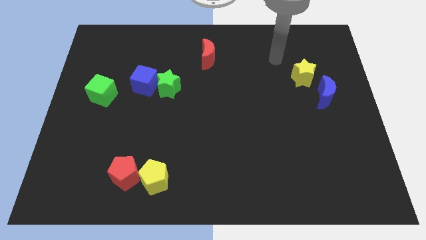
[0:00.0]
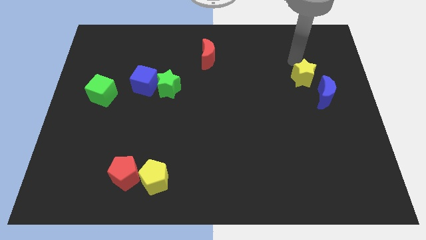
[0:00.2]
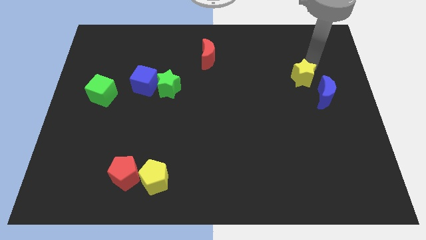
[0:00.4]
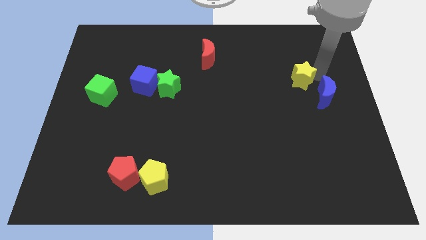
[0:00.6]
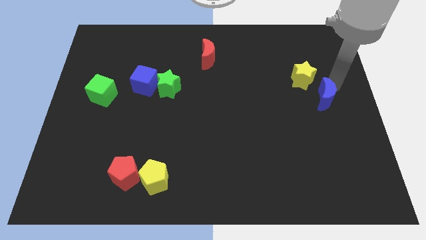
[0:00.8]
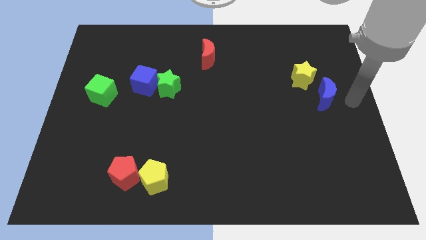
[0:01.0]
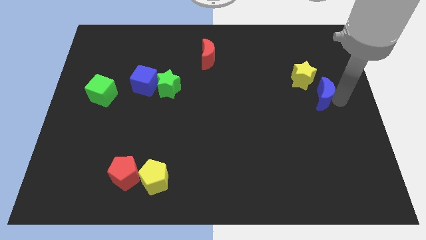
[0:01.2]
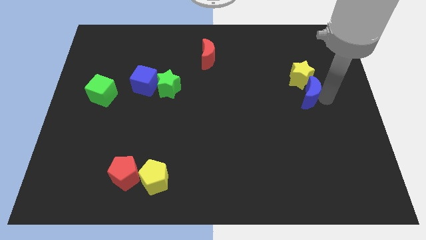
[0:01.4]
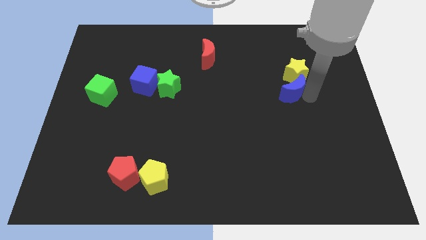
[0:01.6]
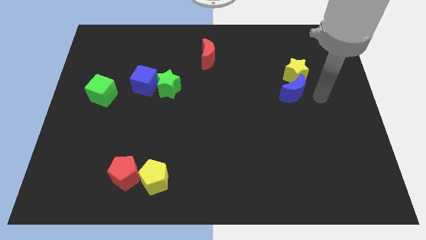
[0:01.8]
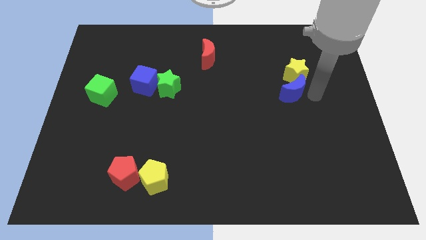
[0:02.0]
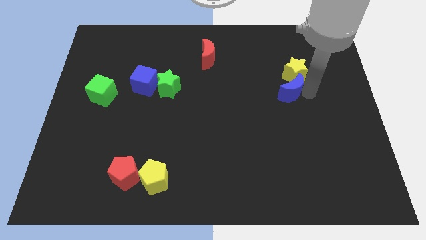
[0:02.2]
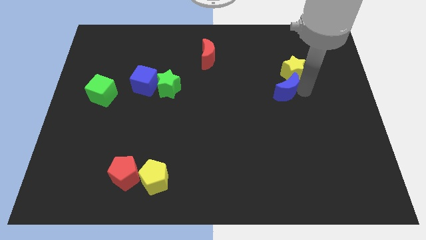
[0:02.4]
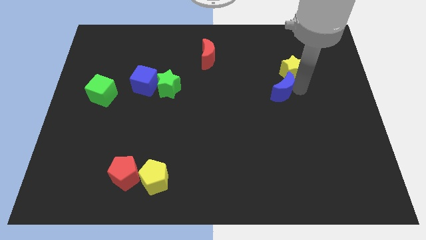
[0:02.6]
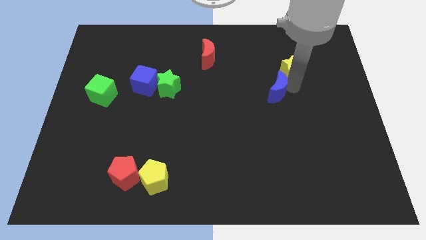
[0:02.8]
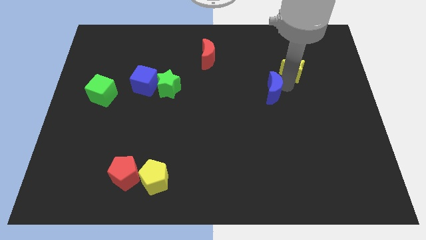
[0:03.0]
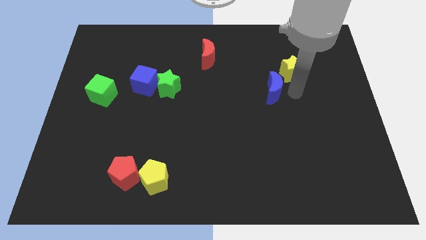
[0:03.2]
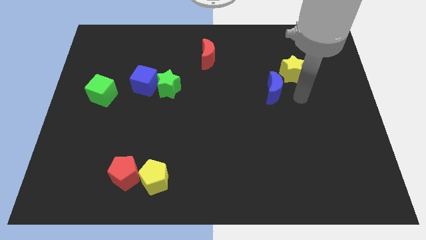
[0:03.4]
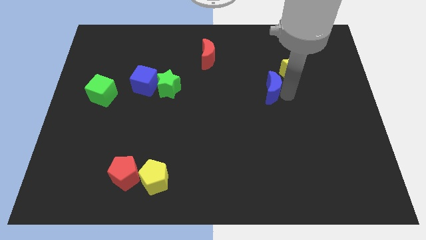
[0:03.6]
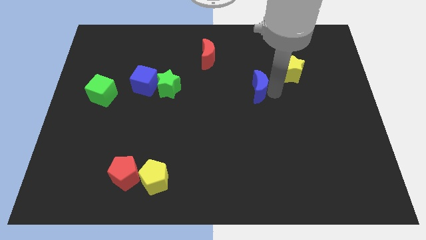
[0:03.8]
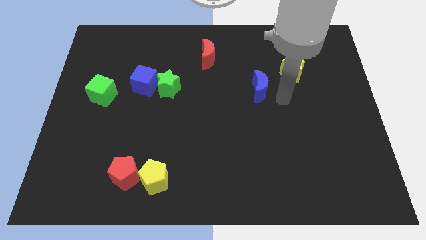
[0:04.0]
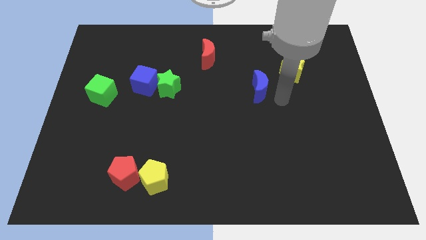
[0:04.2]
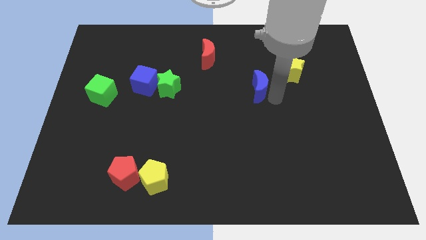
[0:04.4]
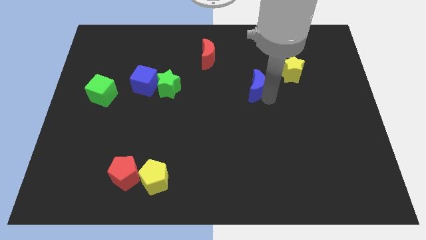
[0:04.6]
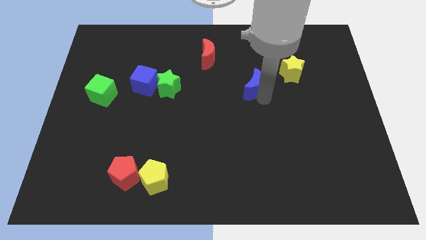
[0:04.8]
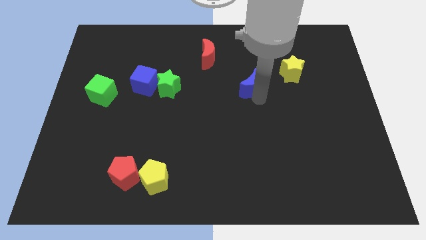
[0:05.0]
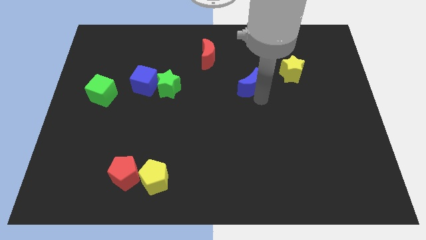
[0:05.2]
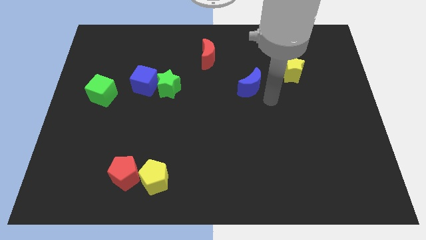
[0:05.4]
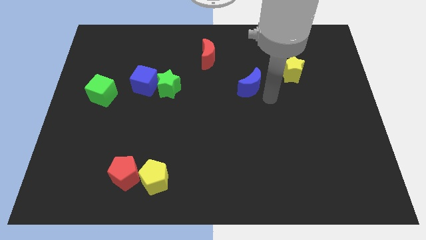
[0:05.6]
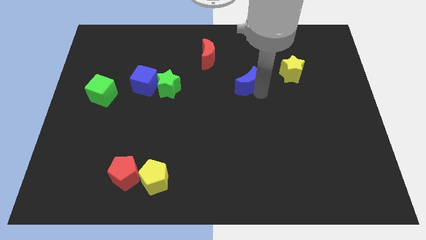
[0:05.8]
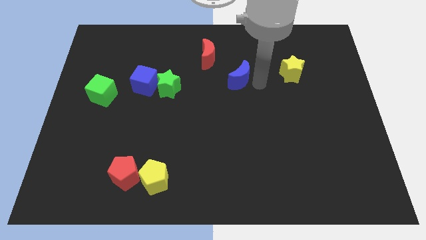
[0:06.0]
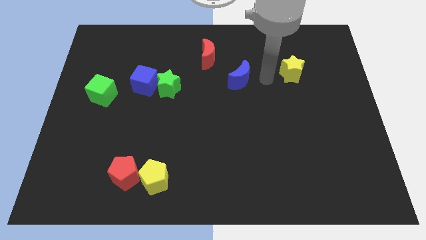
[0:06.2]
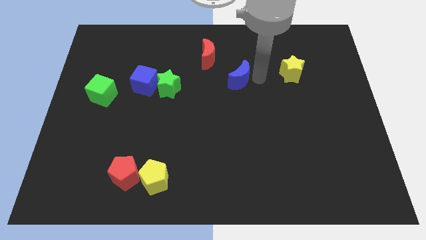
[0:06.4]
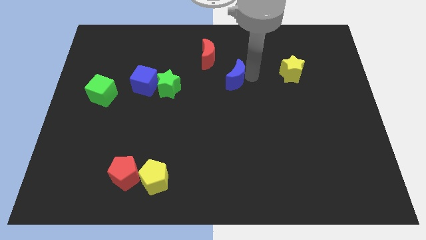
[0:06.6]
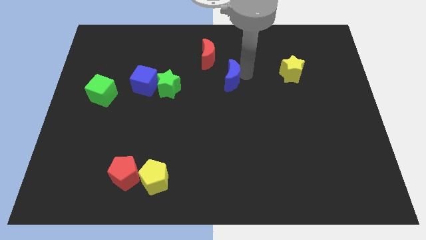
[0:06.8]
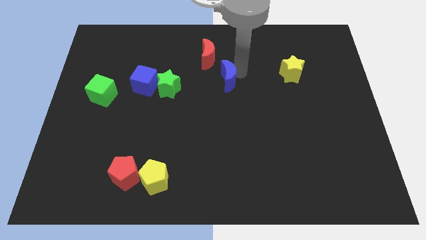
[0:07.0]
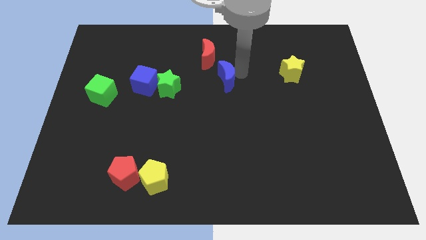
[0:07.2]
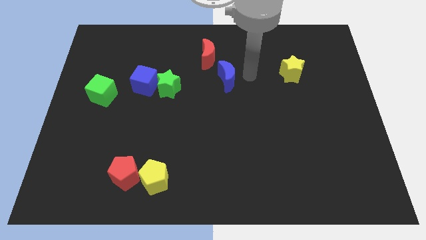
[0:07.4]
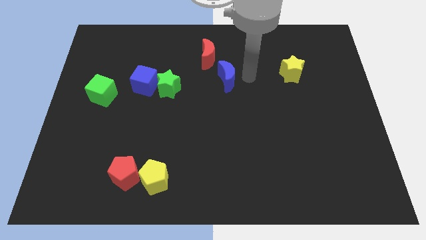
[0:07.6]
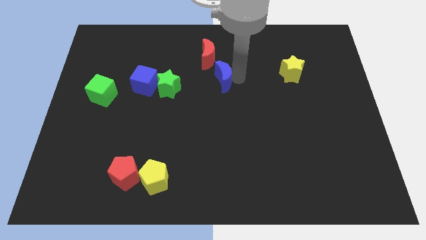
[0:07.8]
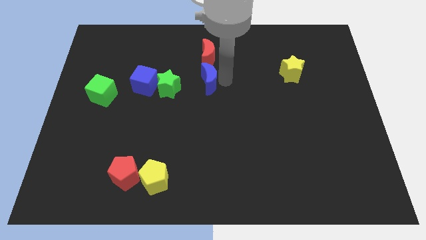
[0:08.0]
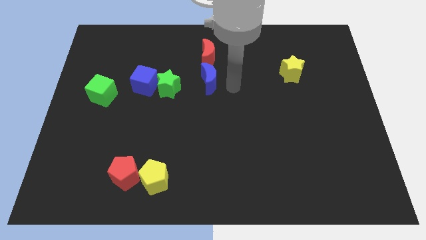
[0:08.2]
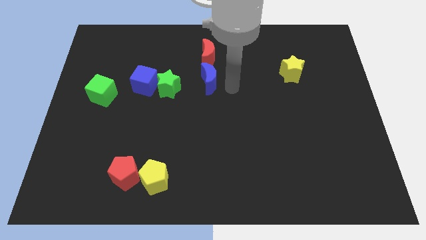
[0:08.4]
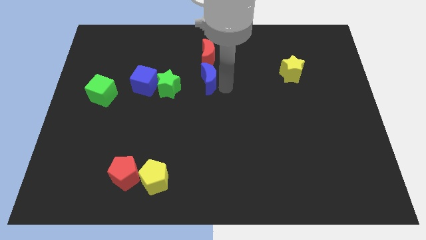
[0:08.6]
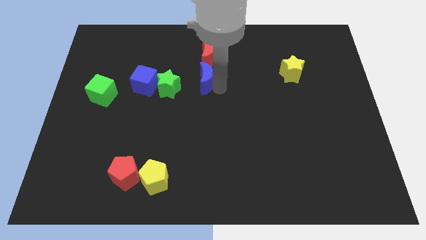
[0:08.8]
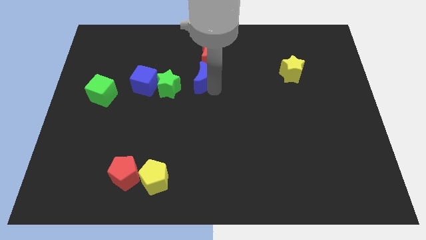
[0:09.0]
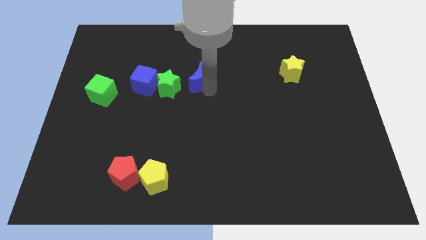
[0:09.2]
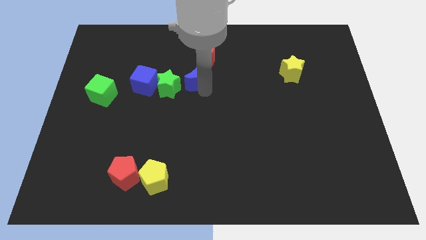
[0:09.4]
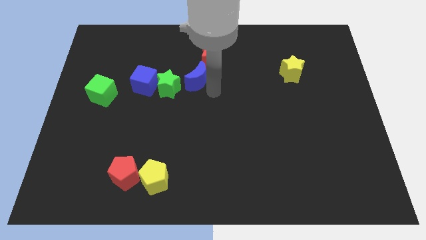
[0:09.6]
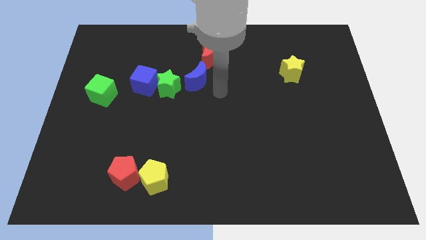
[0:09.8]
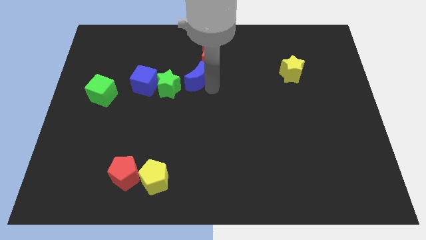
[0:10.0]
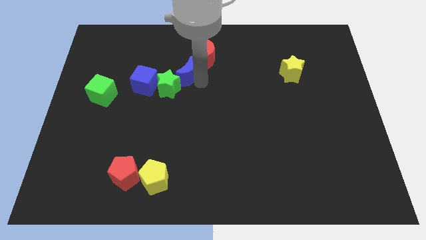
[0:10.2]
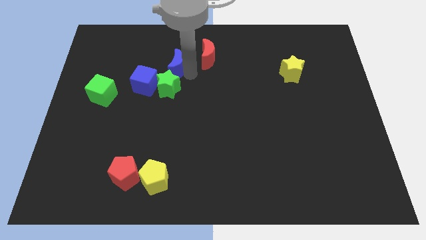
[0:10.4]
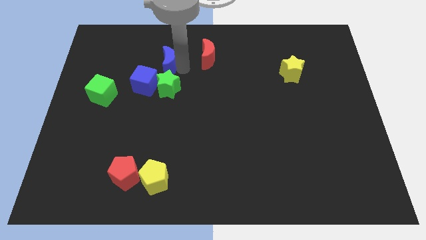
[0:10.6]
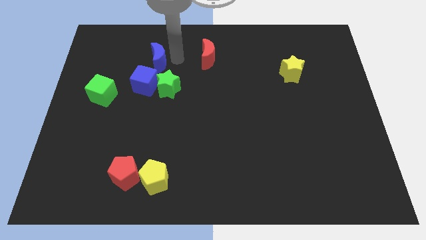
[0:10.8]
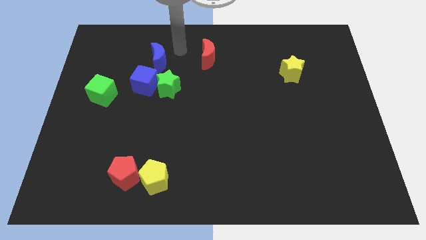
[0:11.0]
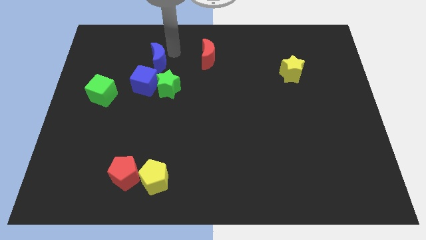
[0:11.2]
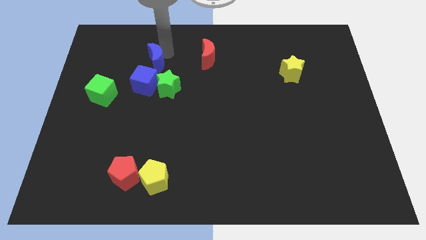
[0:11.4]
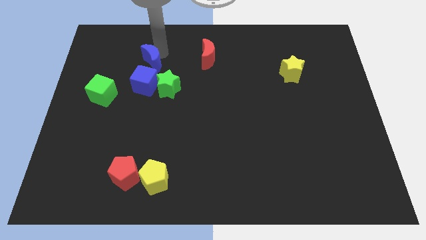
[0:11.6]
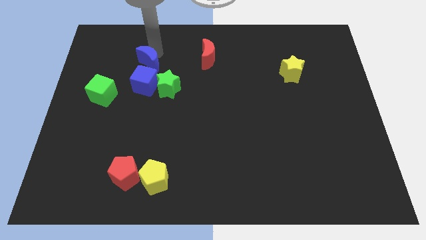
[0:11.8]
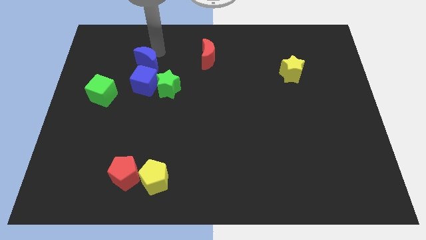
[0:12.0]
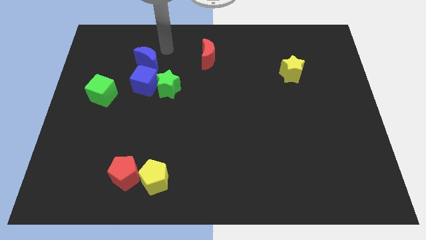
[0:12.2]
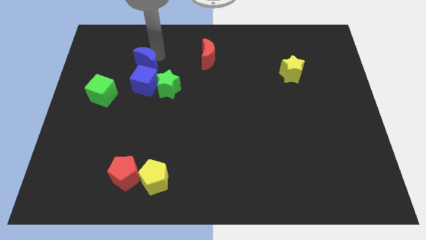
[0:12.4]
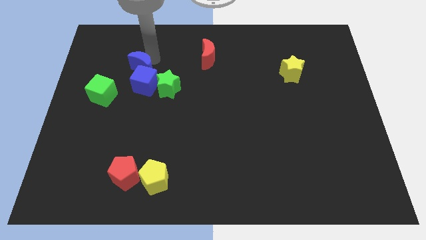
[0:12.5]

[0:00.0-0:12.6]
move the blue moon to the top right side of the green cube
